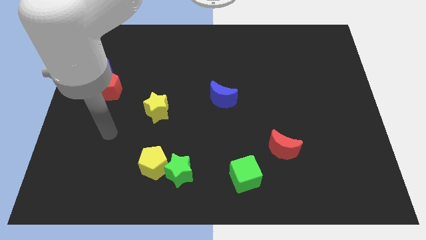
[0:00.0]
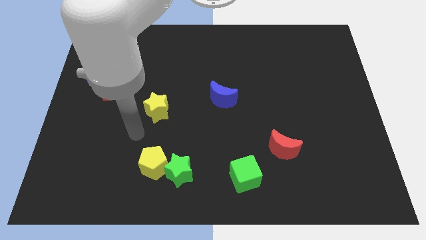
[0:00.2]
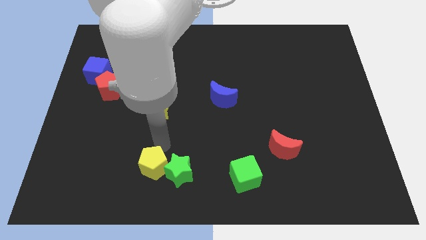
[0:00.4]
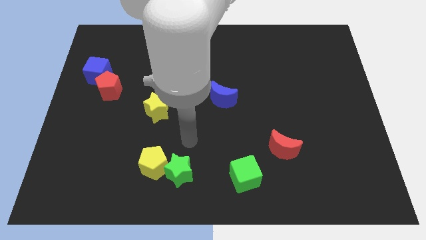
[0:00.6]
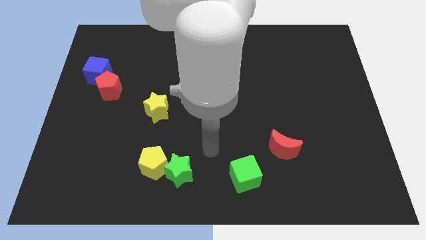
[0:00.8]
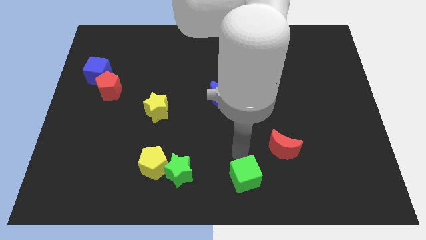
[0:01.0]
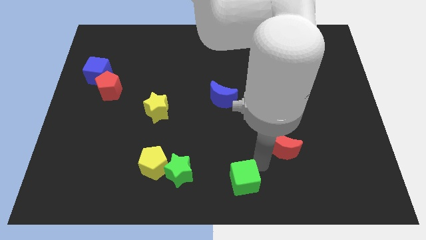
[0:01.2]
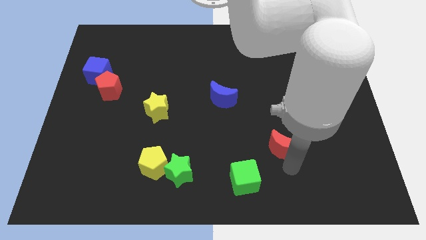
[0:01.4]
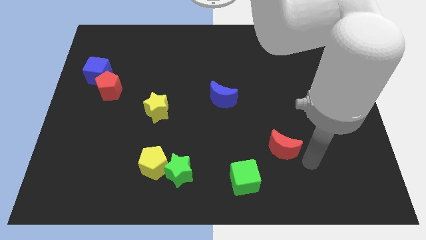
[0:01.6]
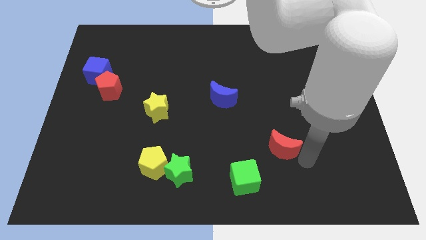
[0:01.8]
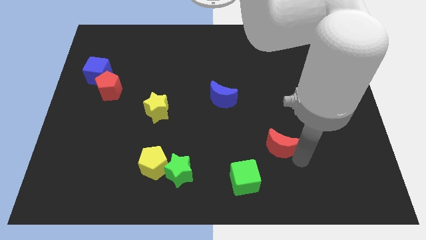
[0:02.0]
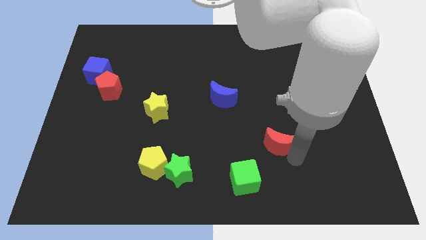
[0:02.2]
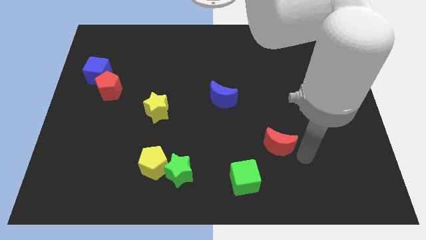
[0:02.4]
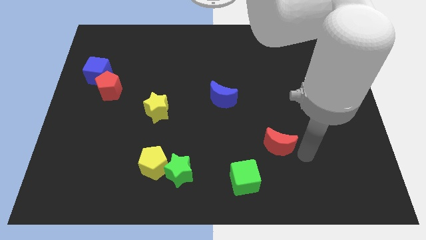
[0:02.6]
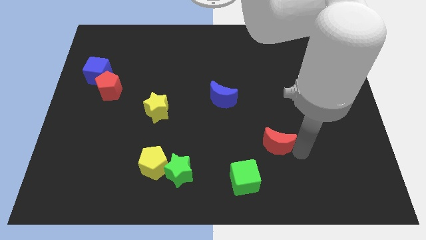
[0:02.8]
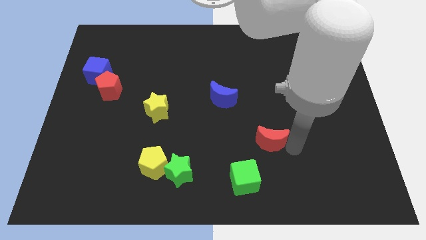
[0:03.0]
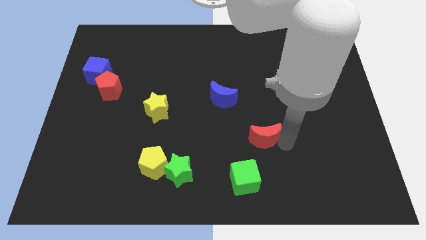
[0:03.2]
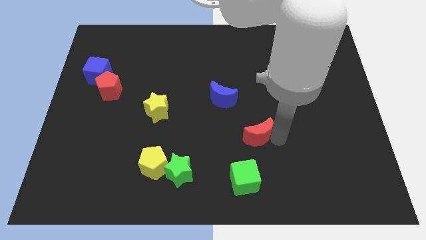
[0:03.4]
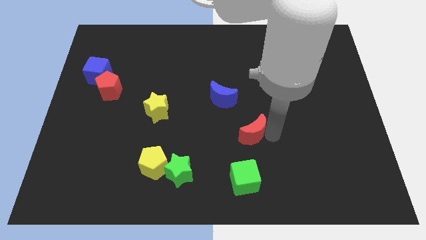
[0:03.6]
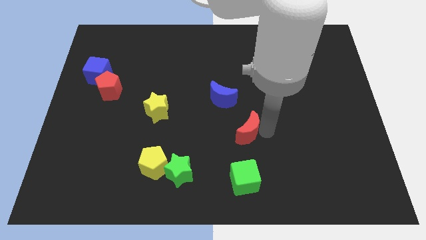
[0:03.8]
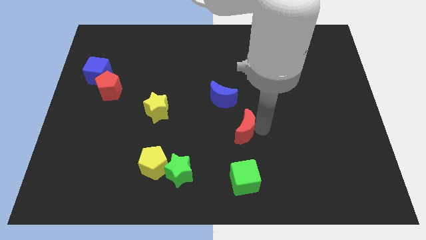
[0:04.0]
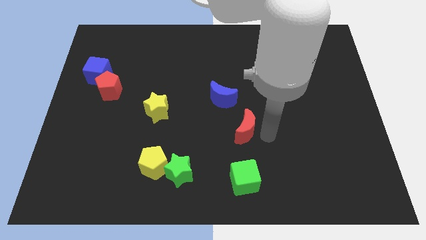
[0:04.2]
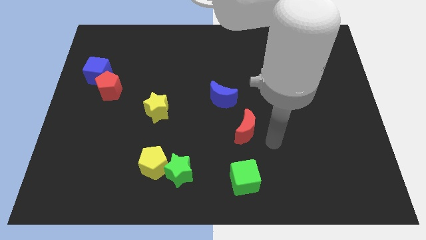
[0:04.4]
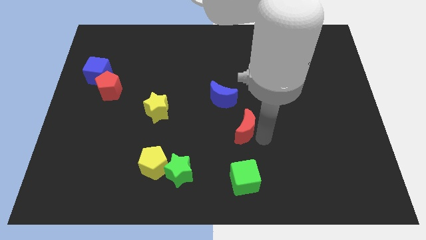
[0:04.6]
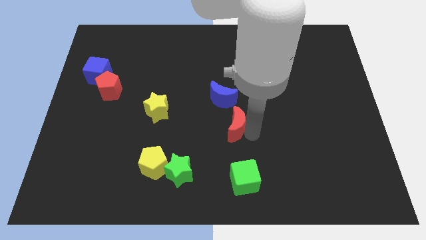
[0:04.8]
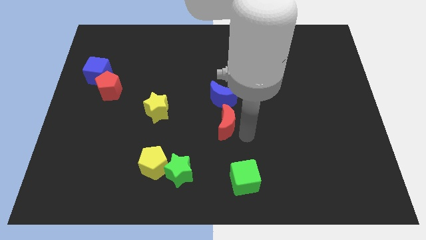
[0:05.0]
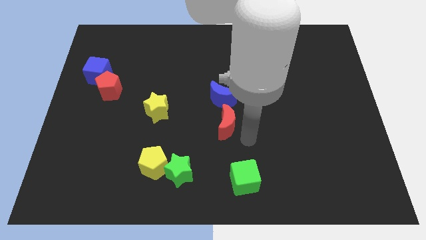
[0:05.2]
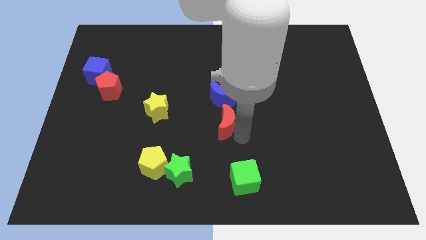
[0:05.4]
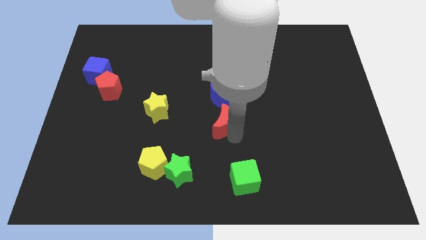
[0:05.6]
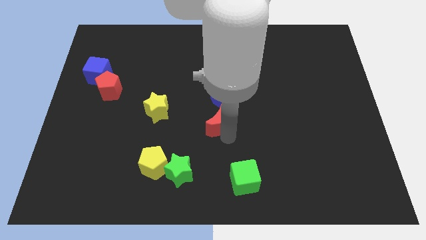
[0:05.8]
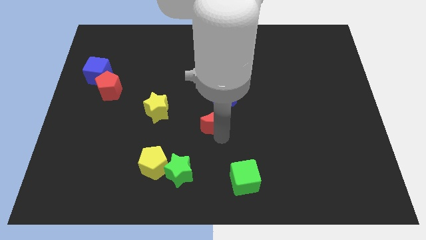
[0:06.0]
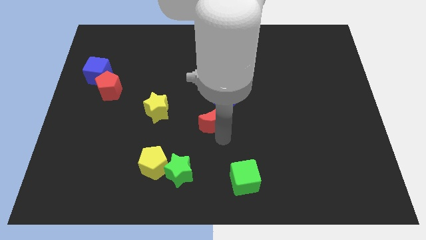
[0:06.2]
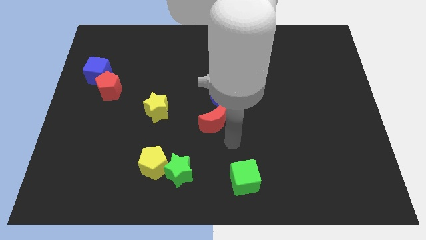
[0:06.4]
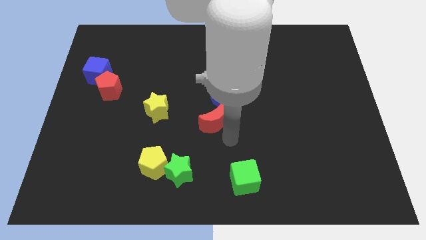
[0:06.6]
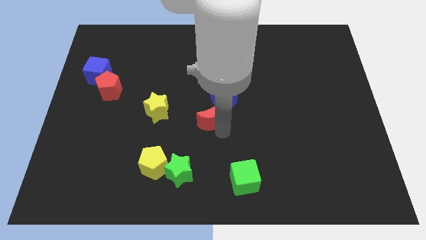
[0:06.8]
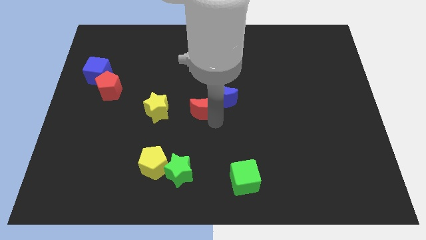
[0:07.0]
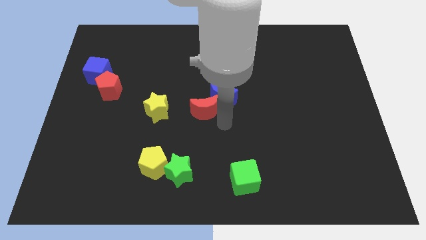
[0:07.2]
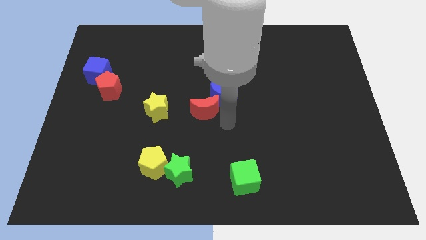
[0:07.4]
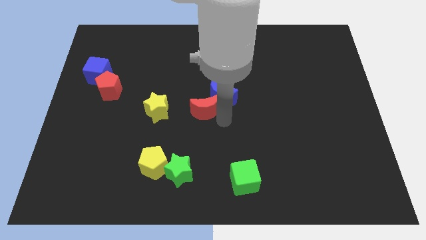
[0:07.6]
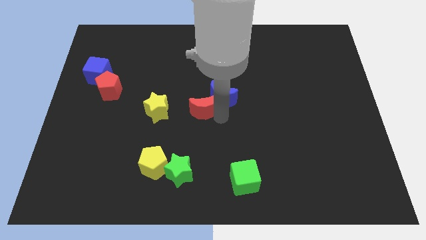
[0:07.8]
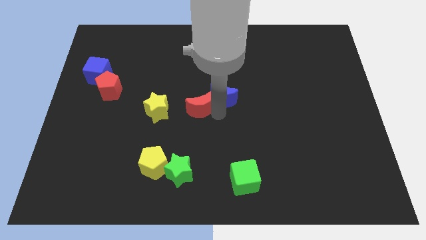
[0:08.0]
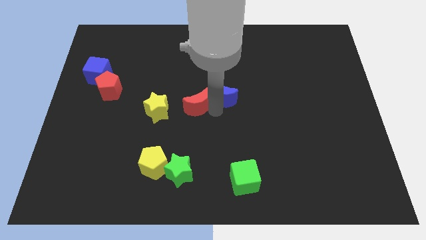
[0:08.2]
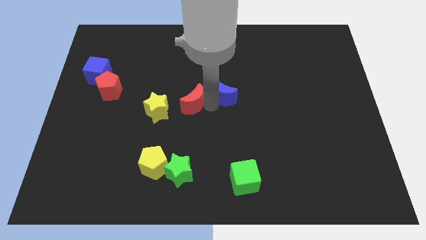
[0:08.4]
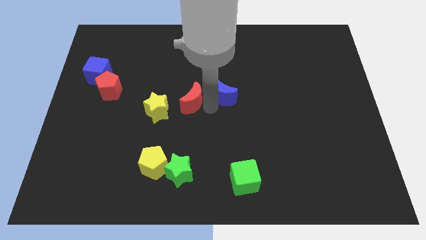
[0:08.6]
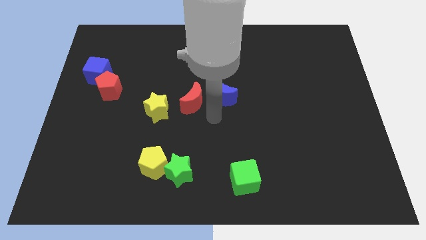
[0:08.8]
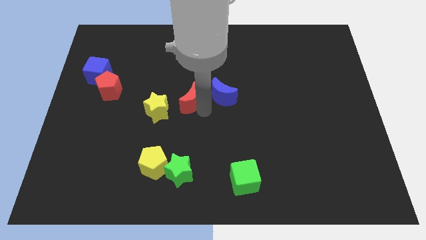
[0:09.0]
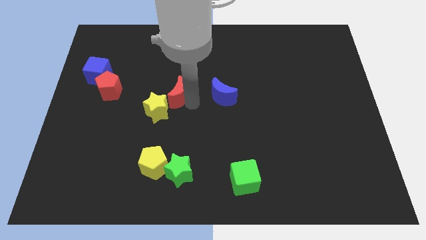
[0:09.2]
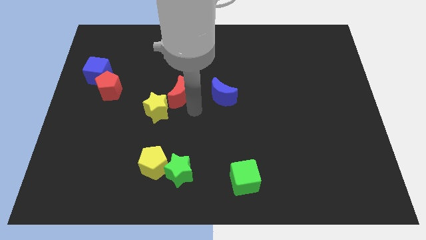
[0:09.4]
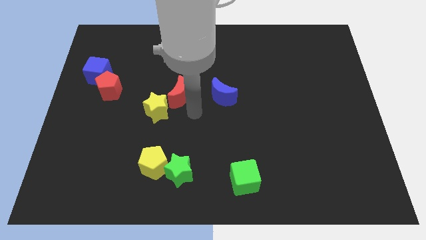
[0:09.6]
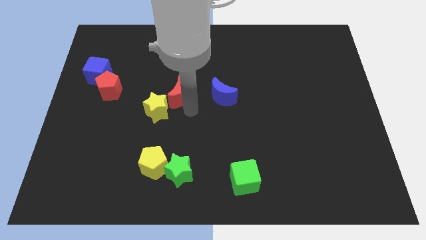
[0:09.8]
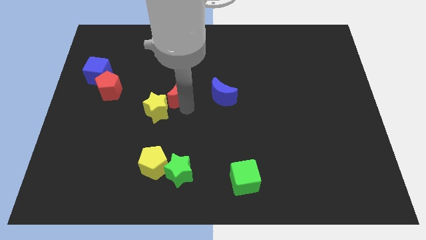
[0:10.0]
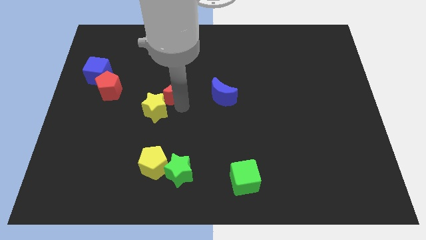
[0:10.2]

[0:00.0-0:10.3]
put the red moon to the top side of the yellow star

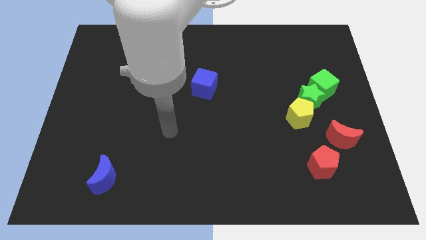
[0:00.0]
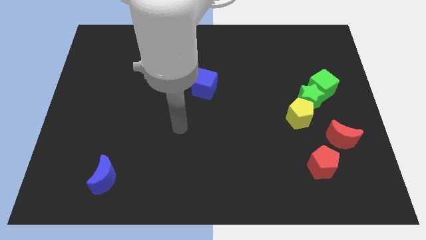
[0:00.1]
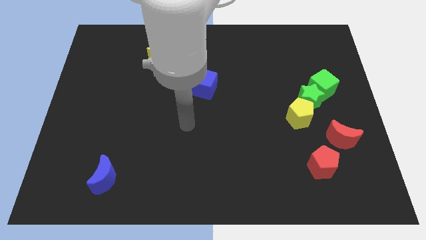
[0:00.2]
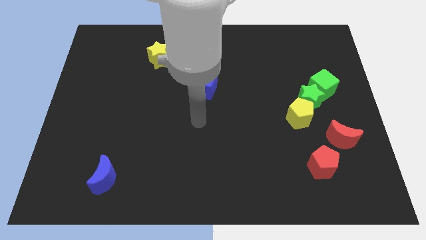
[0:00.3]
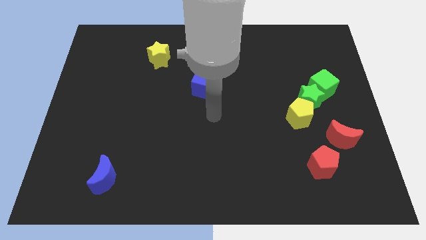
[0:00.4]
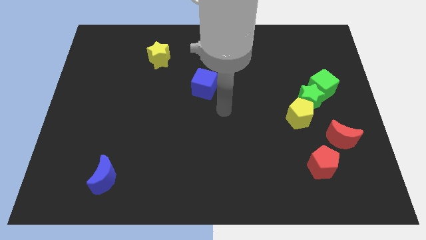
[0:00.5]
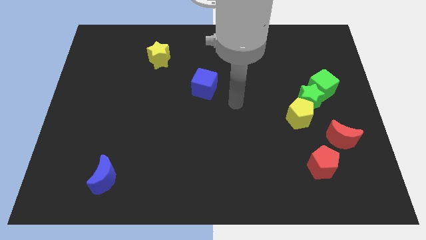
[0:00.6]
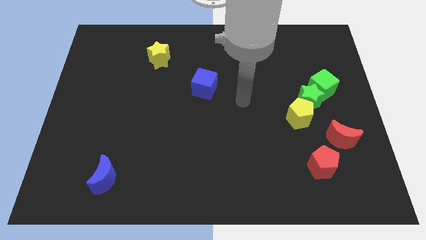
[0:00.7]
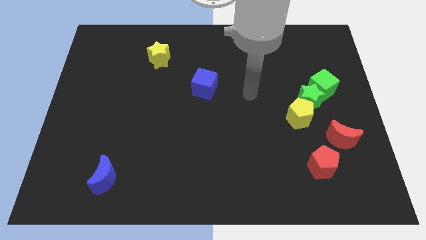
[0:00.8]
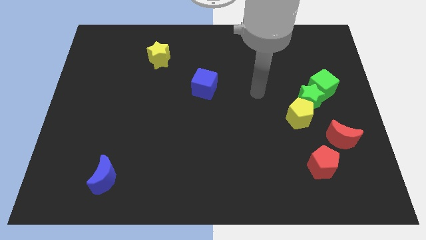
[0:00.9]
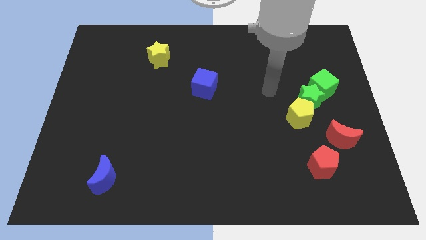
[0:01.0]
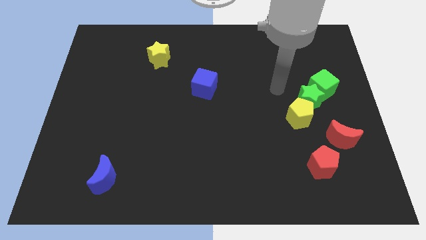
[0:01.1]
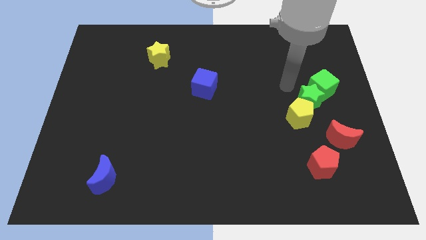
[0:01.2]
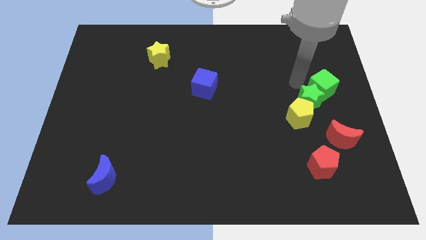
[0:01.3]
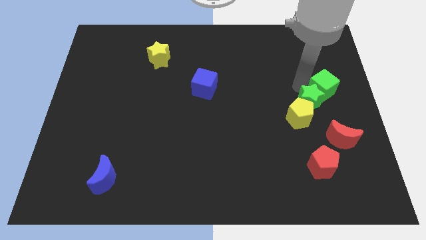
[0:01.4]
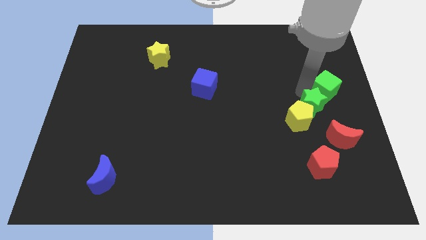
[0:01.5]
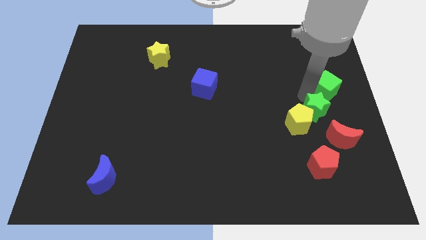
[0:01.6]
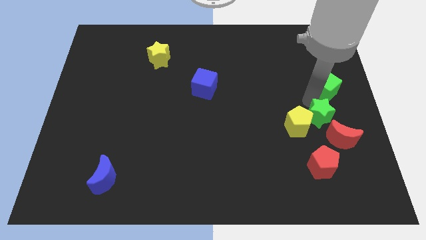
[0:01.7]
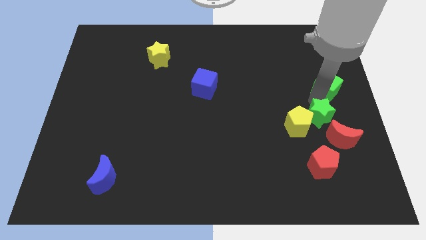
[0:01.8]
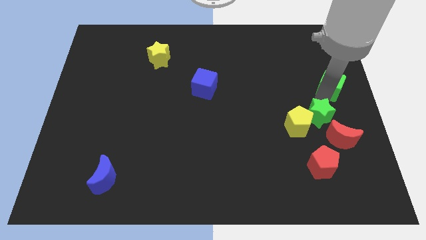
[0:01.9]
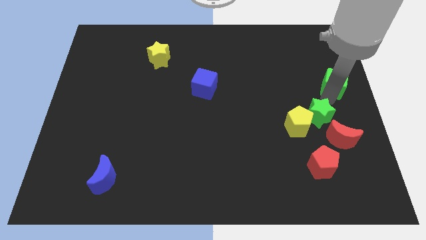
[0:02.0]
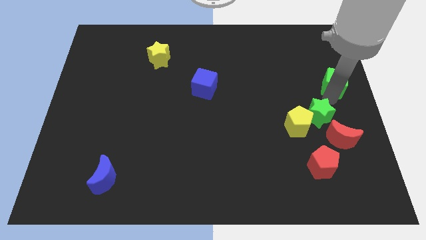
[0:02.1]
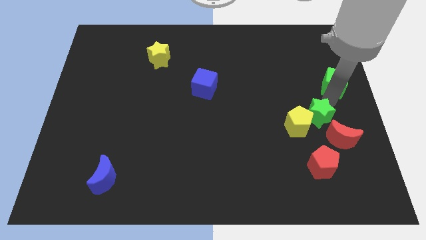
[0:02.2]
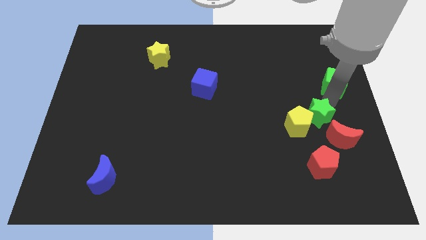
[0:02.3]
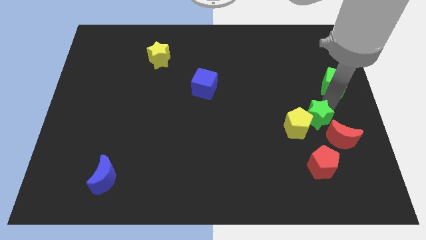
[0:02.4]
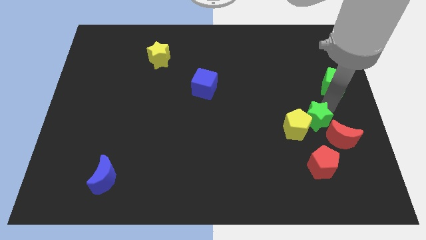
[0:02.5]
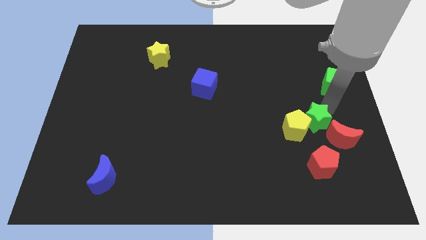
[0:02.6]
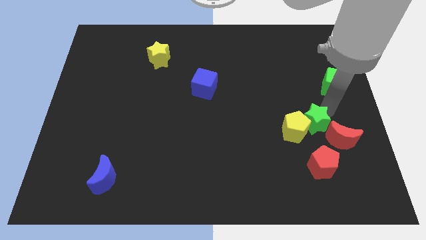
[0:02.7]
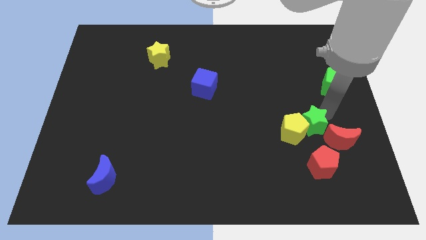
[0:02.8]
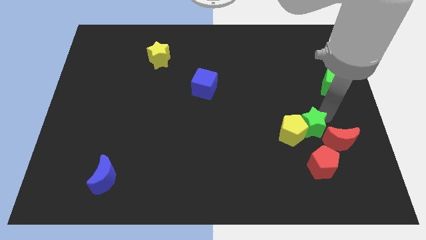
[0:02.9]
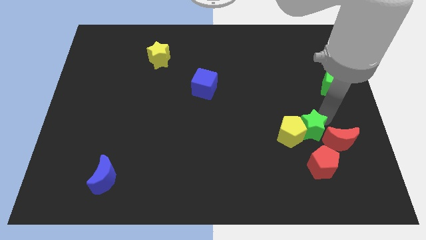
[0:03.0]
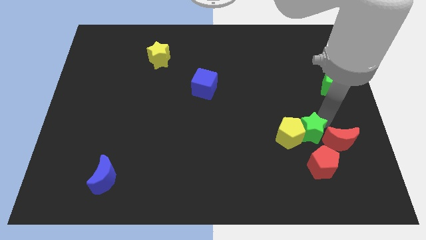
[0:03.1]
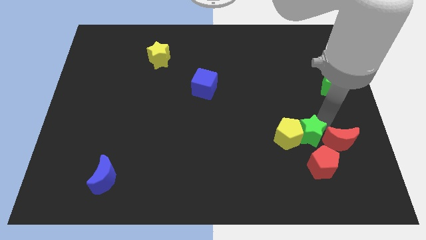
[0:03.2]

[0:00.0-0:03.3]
move the green star to the top left side of the red pentagon
